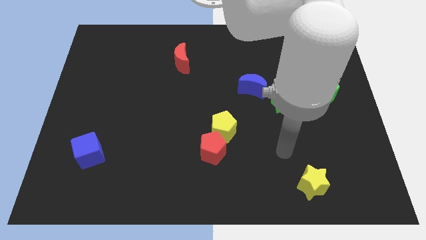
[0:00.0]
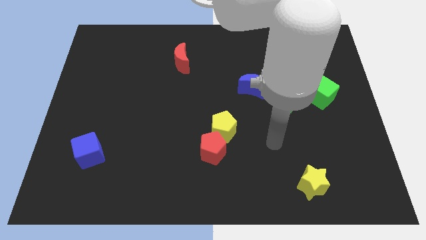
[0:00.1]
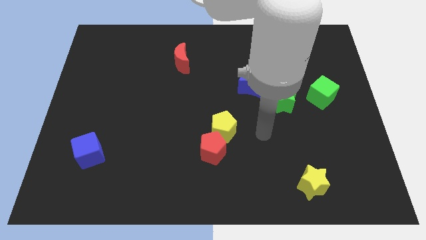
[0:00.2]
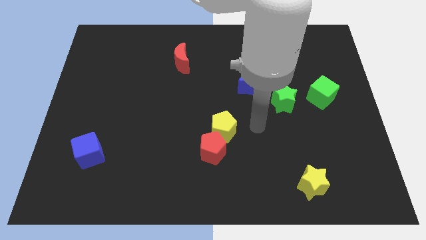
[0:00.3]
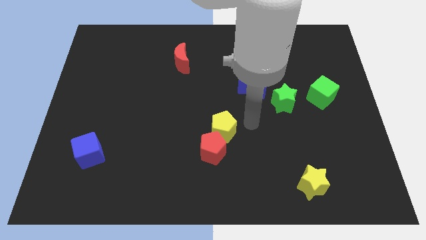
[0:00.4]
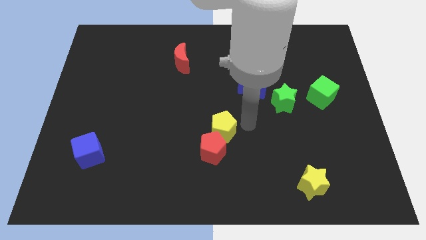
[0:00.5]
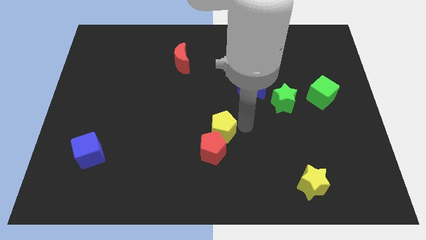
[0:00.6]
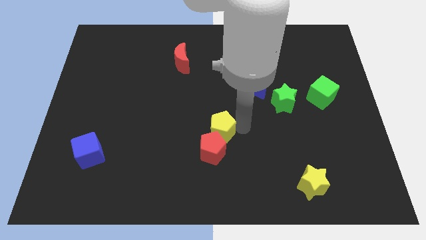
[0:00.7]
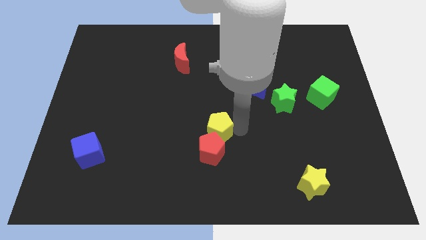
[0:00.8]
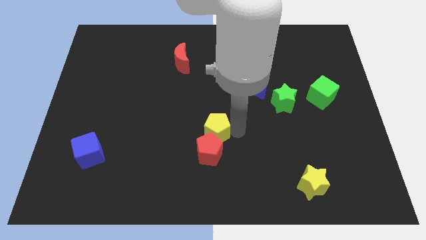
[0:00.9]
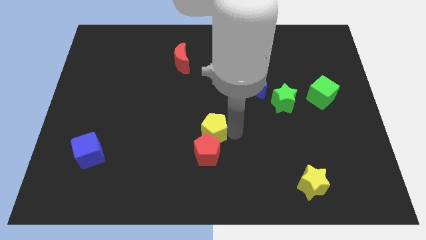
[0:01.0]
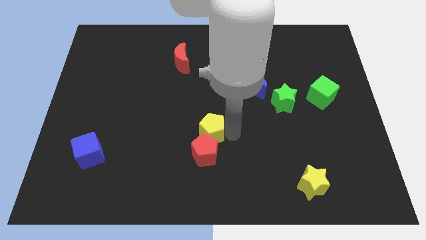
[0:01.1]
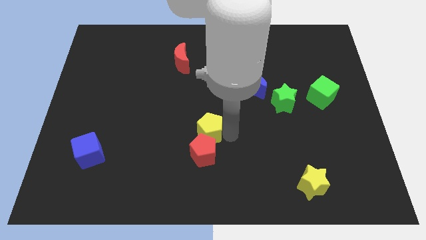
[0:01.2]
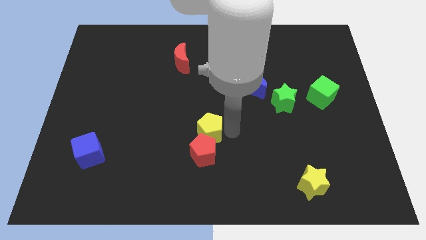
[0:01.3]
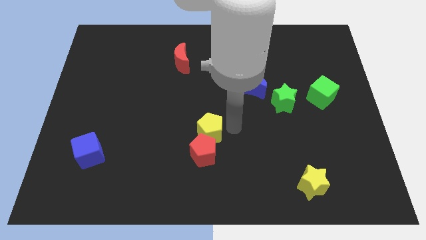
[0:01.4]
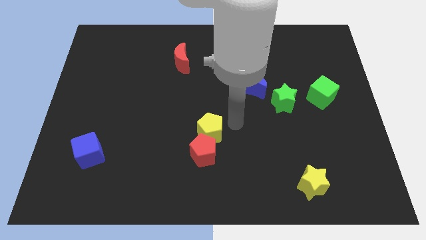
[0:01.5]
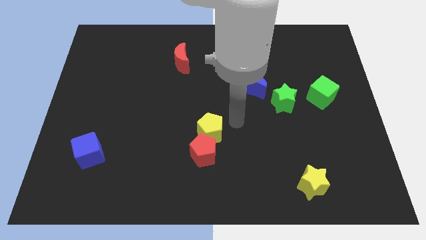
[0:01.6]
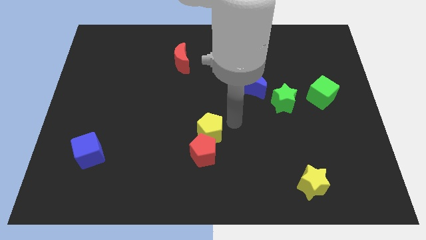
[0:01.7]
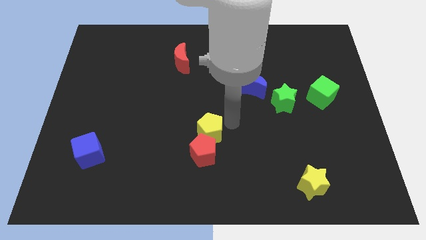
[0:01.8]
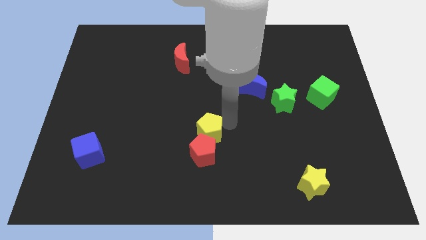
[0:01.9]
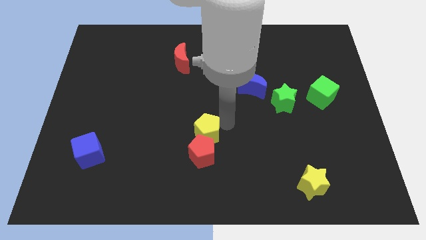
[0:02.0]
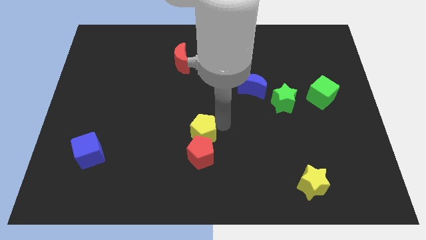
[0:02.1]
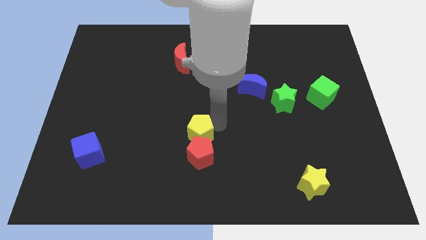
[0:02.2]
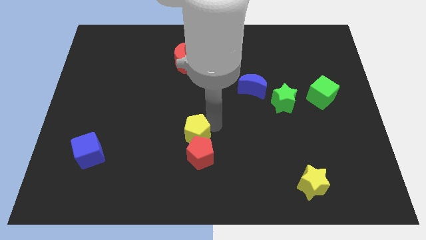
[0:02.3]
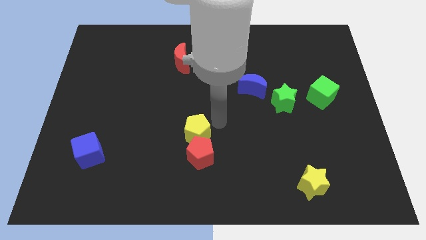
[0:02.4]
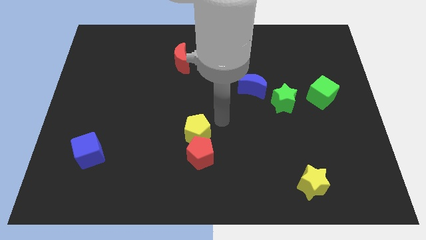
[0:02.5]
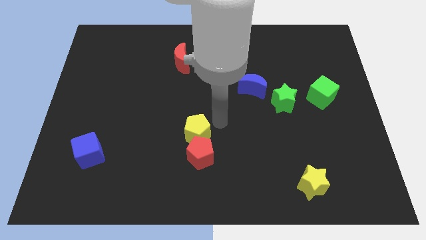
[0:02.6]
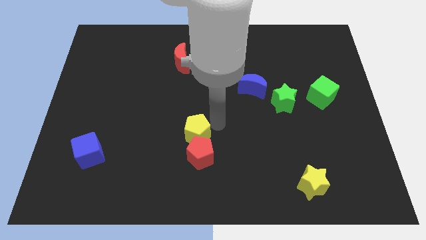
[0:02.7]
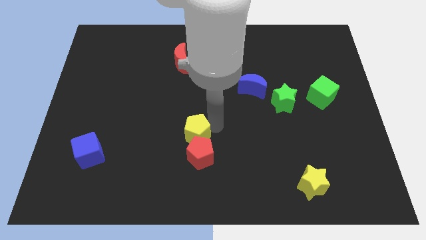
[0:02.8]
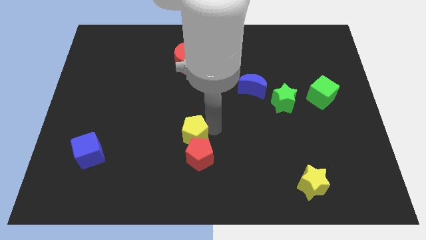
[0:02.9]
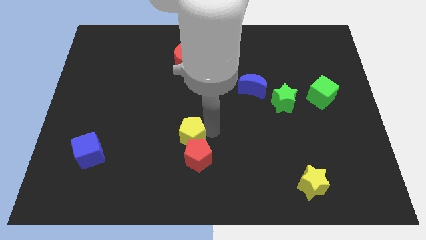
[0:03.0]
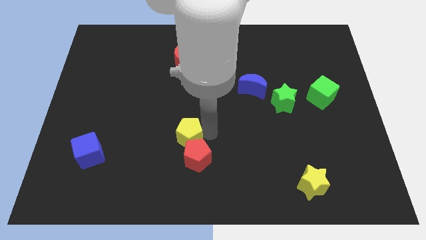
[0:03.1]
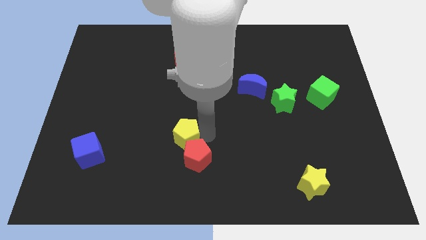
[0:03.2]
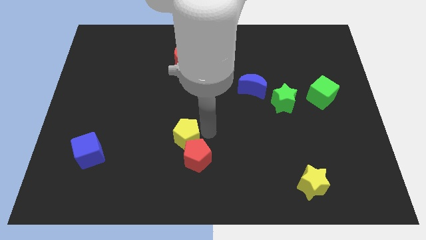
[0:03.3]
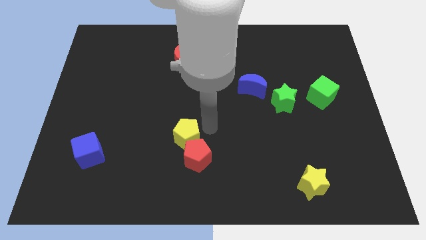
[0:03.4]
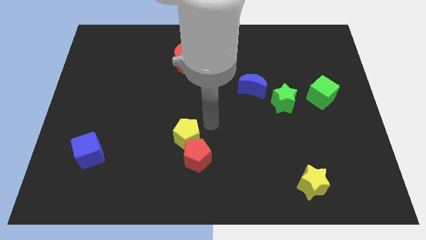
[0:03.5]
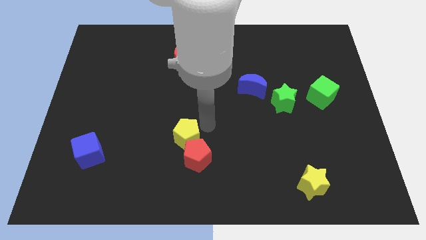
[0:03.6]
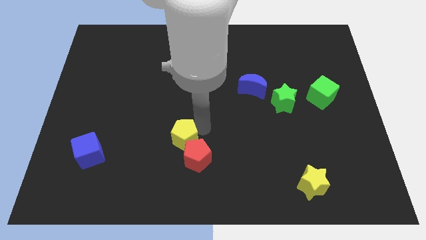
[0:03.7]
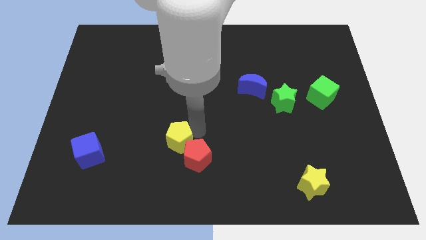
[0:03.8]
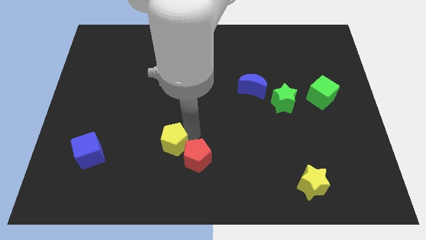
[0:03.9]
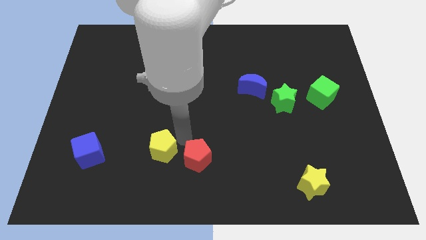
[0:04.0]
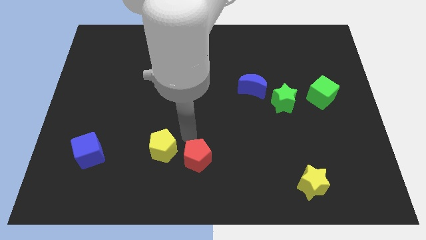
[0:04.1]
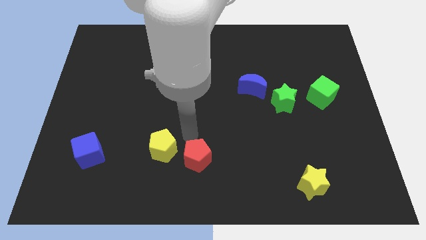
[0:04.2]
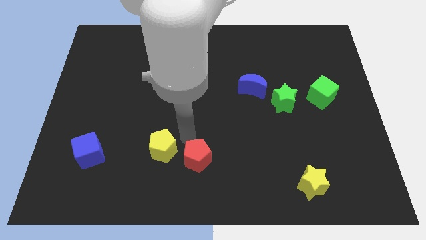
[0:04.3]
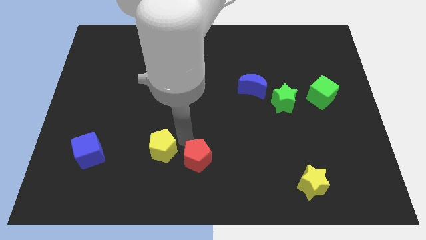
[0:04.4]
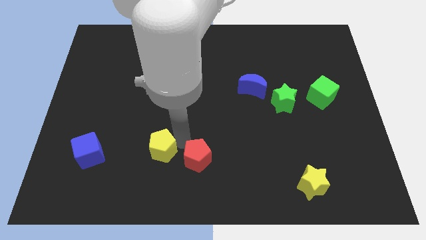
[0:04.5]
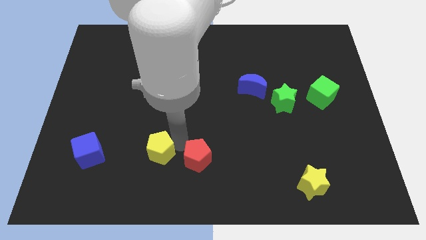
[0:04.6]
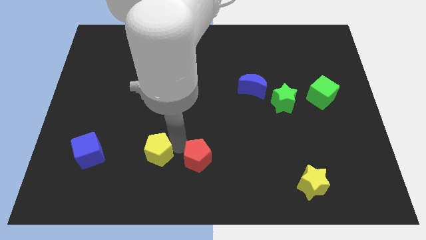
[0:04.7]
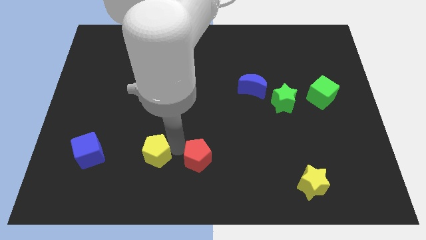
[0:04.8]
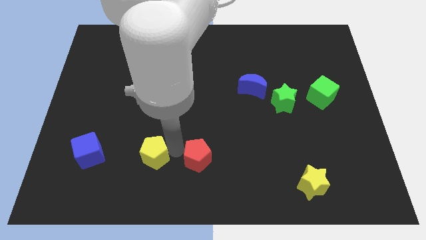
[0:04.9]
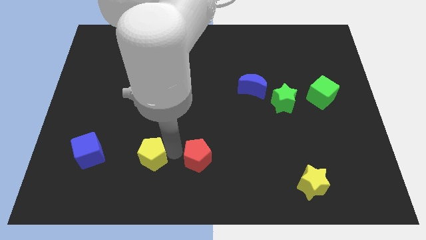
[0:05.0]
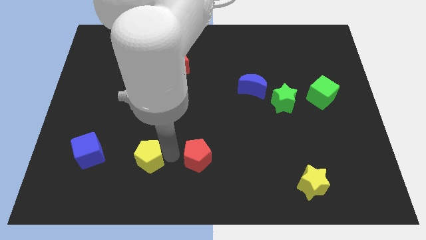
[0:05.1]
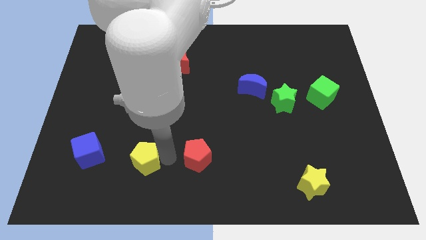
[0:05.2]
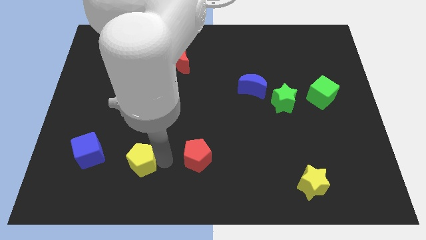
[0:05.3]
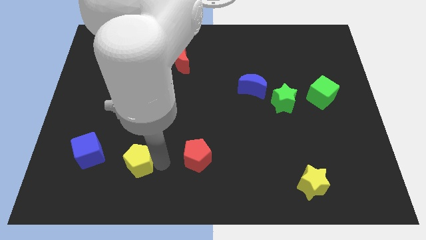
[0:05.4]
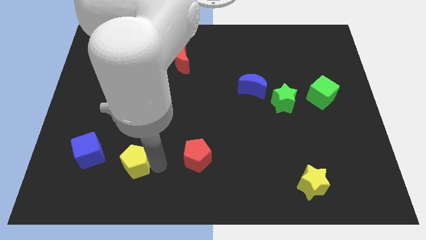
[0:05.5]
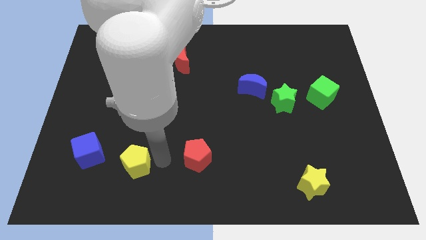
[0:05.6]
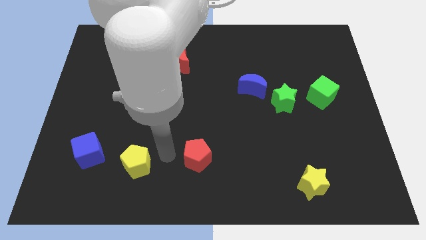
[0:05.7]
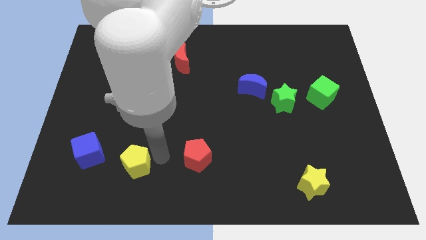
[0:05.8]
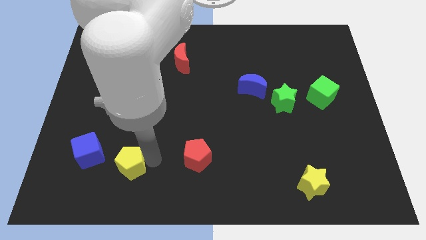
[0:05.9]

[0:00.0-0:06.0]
put the yellow pentagon to the bottom right of the blue cube

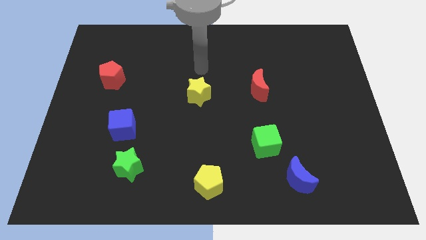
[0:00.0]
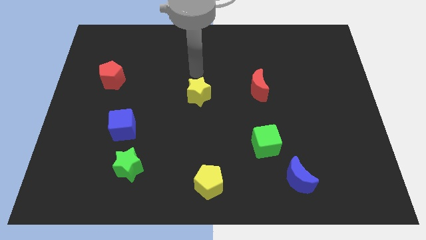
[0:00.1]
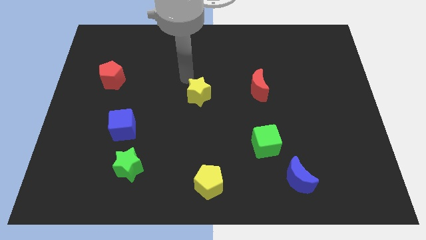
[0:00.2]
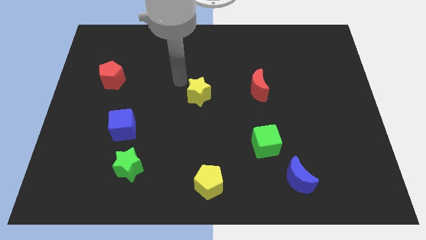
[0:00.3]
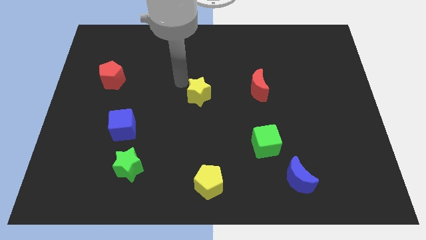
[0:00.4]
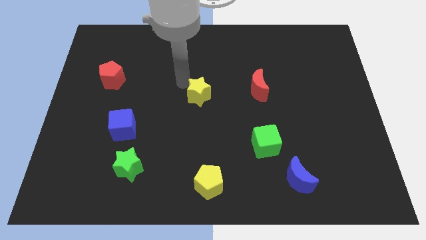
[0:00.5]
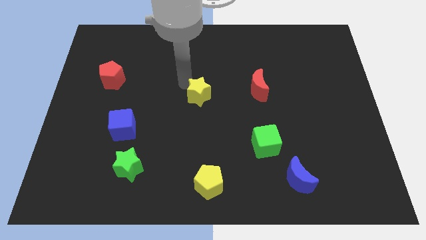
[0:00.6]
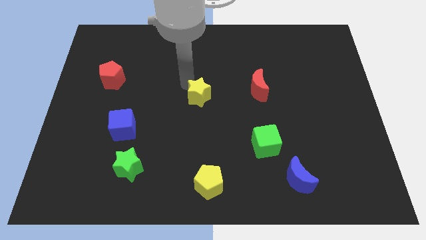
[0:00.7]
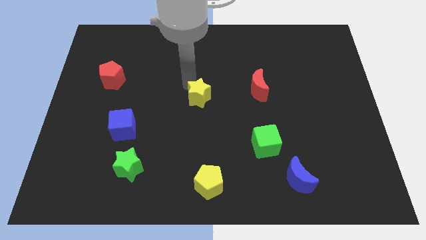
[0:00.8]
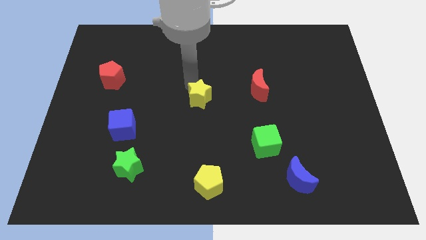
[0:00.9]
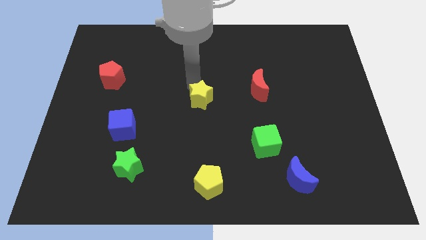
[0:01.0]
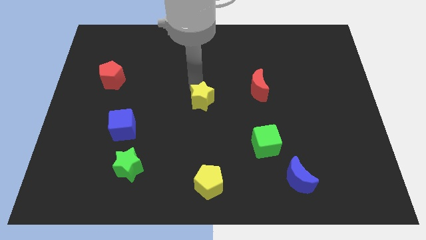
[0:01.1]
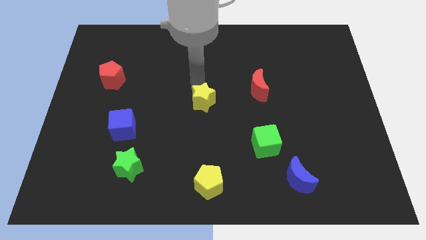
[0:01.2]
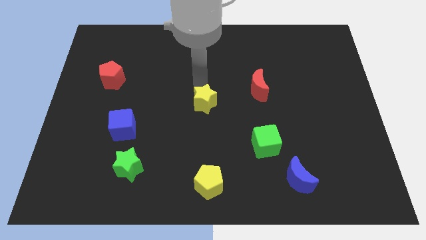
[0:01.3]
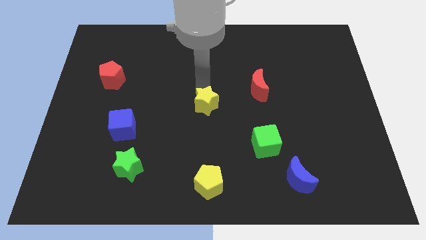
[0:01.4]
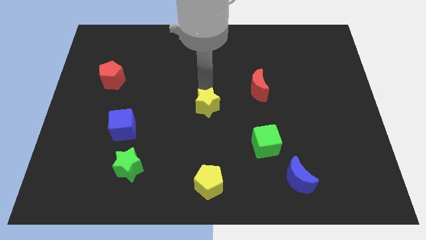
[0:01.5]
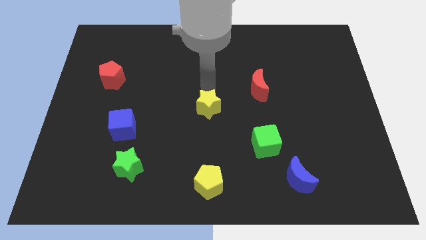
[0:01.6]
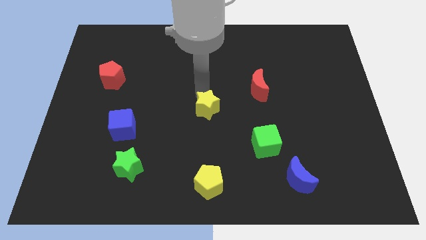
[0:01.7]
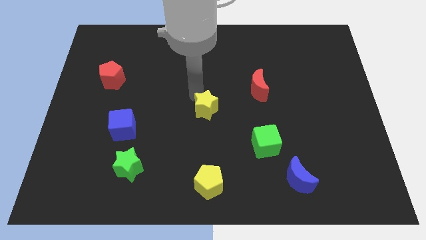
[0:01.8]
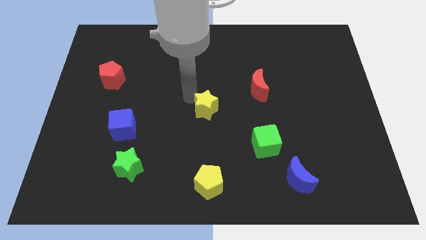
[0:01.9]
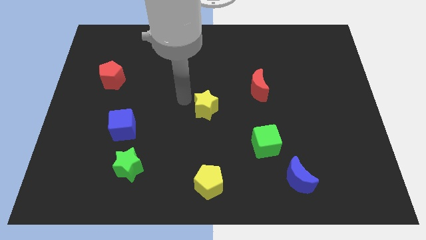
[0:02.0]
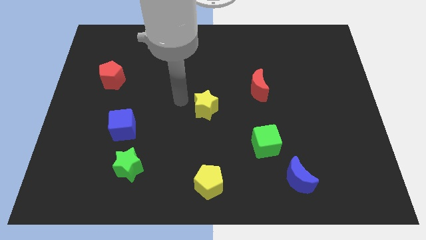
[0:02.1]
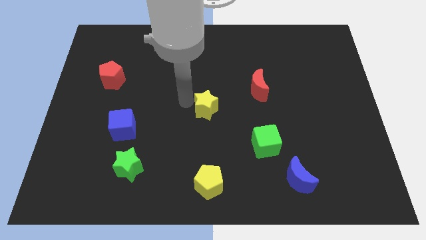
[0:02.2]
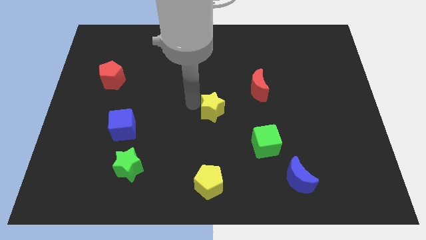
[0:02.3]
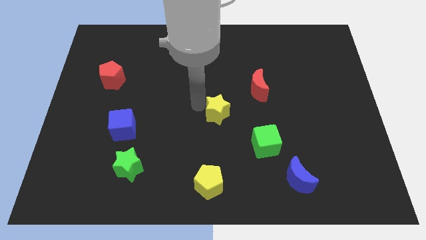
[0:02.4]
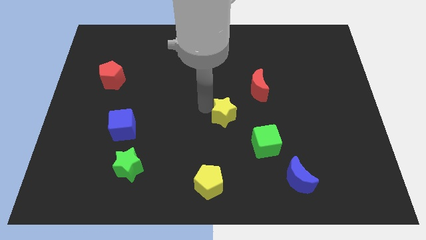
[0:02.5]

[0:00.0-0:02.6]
slide the yellow star diagonally up and to the left of the green cube
